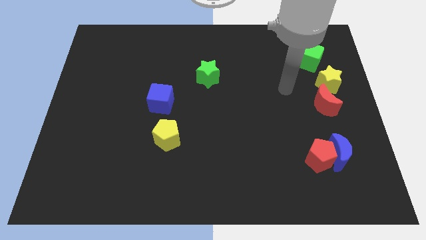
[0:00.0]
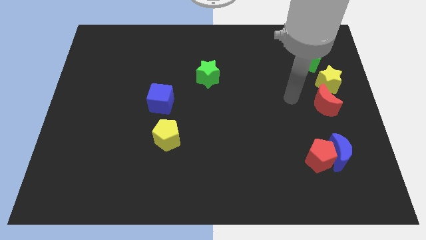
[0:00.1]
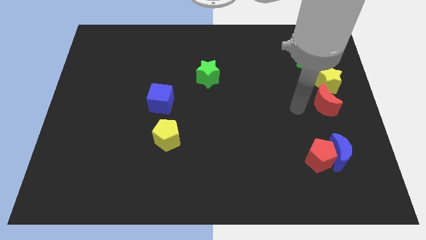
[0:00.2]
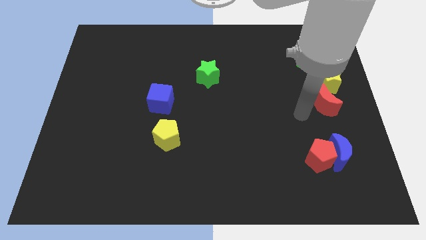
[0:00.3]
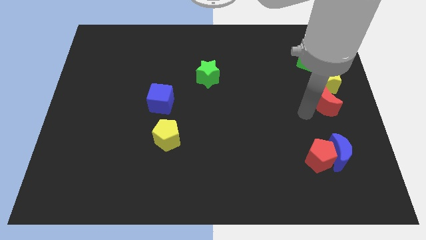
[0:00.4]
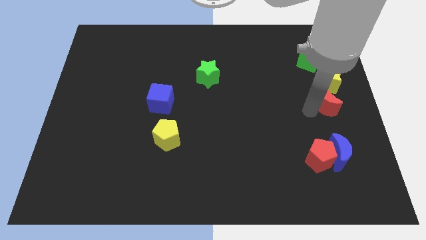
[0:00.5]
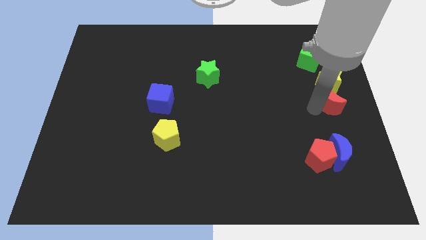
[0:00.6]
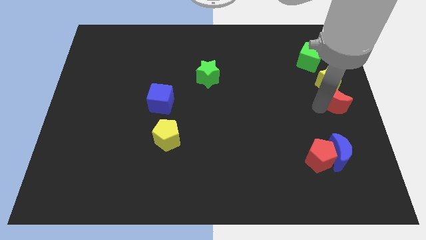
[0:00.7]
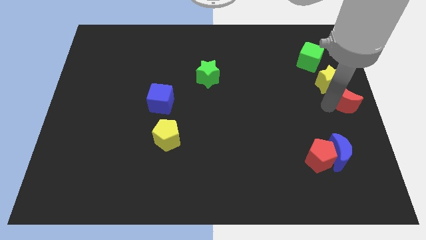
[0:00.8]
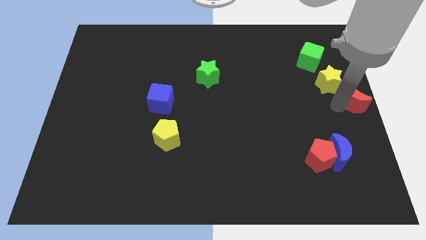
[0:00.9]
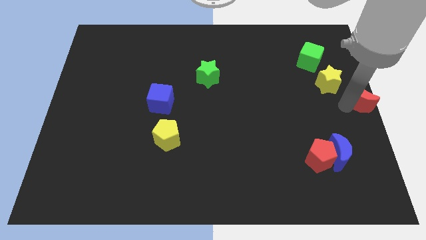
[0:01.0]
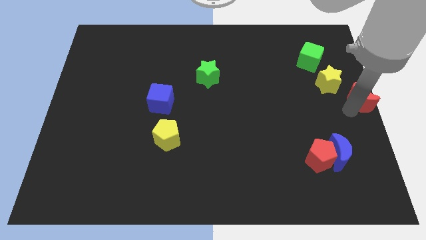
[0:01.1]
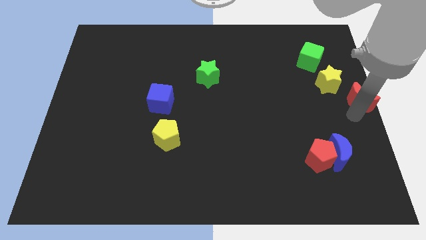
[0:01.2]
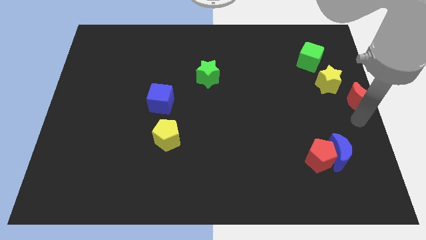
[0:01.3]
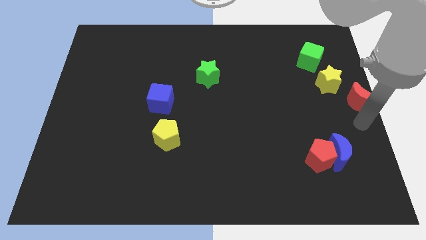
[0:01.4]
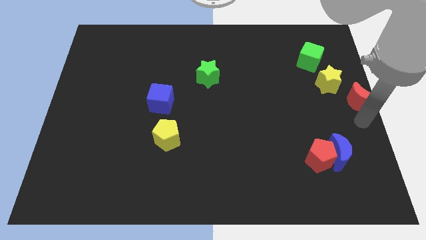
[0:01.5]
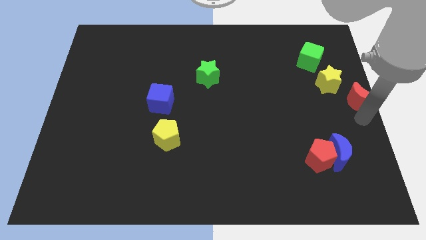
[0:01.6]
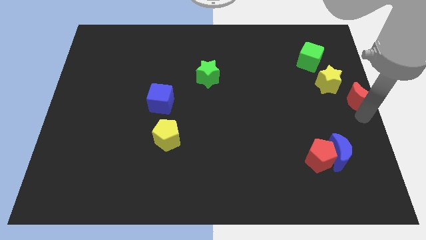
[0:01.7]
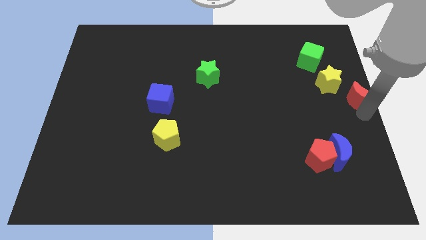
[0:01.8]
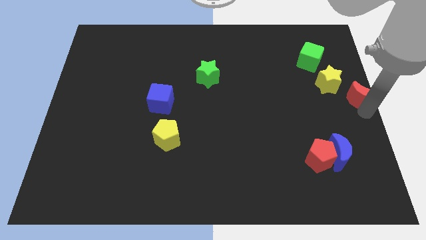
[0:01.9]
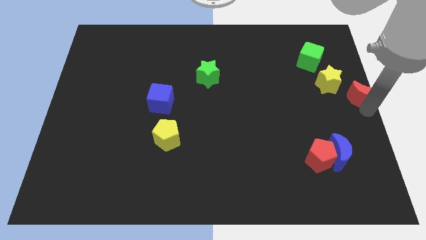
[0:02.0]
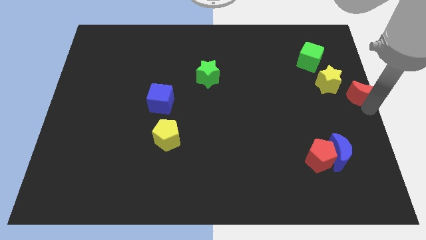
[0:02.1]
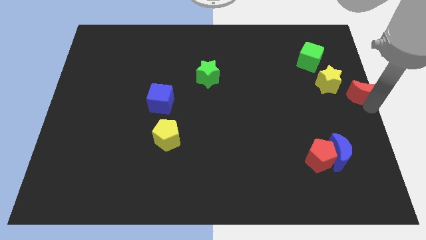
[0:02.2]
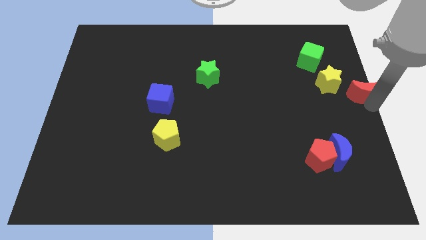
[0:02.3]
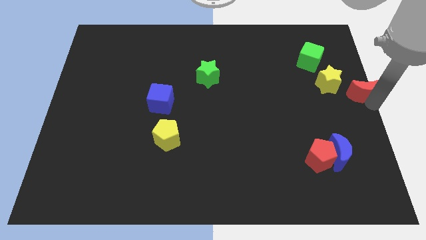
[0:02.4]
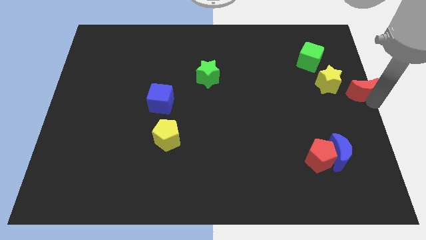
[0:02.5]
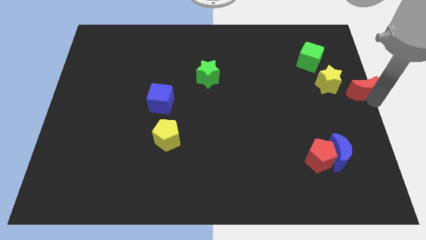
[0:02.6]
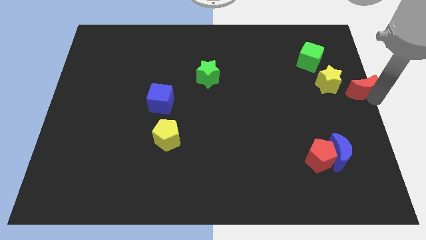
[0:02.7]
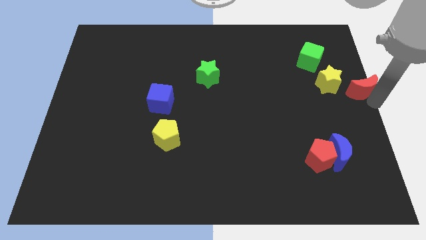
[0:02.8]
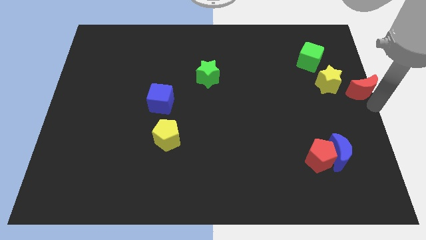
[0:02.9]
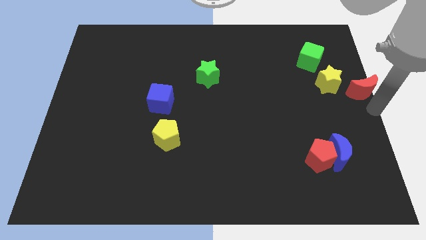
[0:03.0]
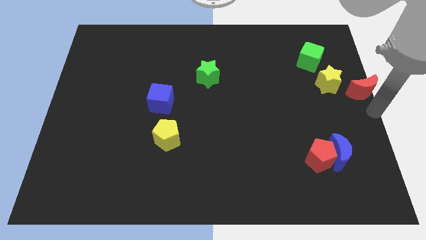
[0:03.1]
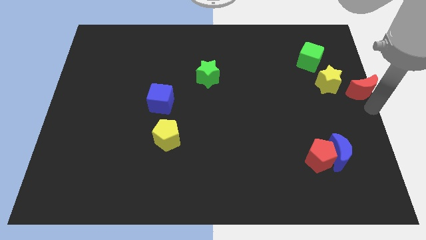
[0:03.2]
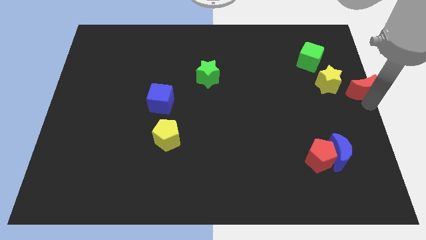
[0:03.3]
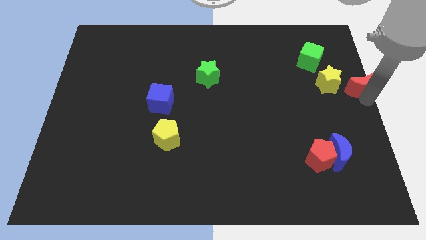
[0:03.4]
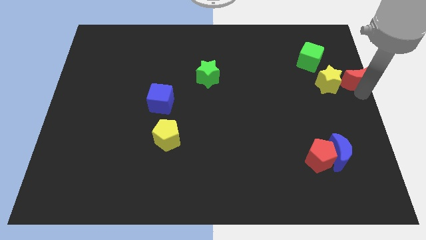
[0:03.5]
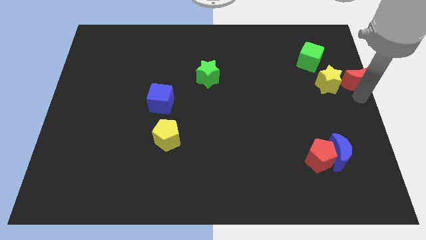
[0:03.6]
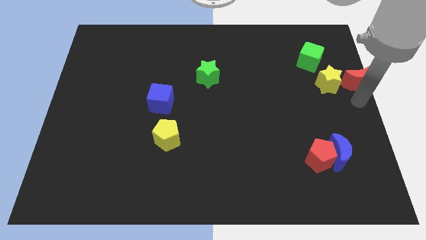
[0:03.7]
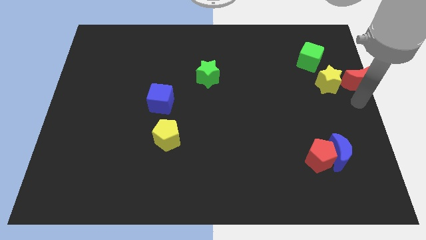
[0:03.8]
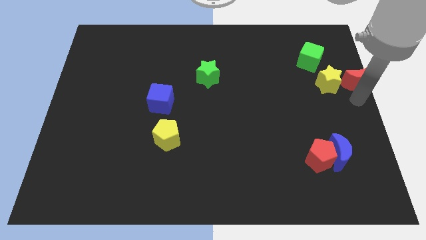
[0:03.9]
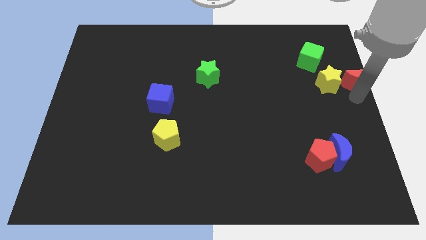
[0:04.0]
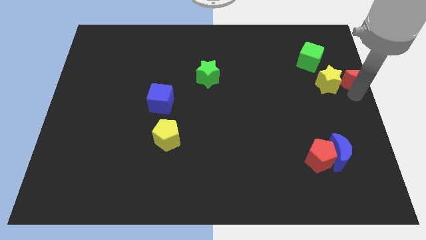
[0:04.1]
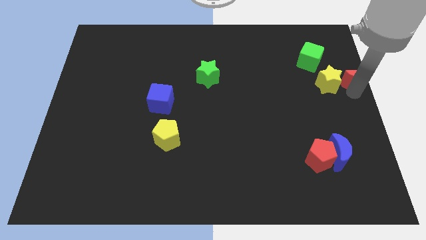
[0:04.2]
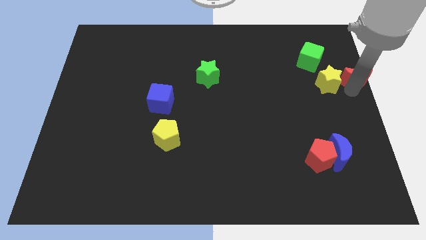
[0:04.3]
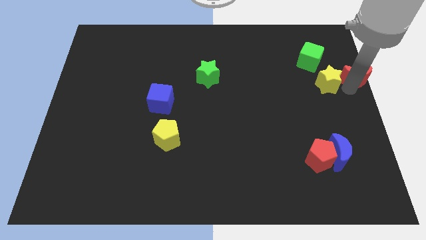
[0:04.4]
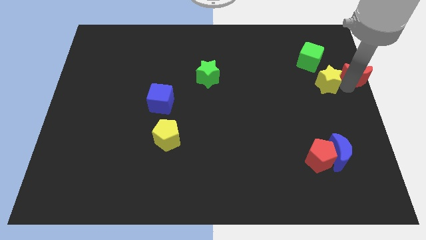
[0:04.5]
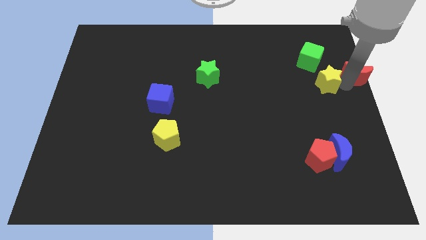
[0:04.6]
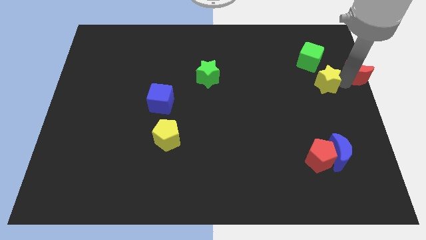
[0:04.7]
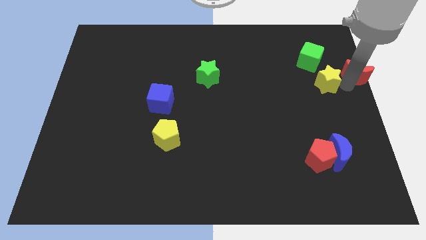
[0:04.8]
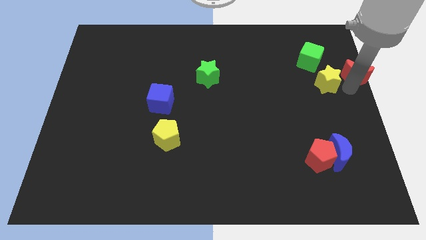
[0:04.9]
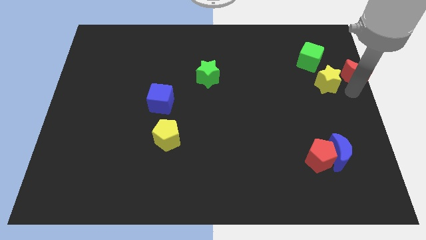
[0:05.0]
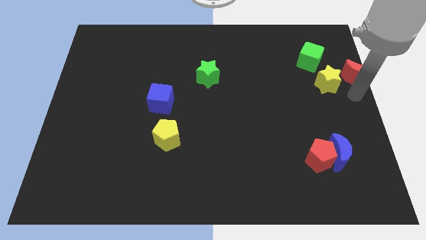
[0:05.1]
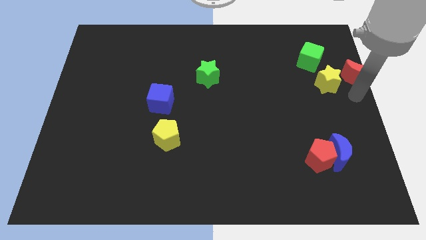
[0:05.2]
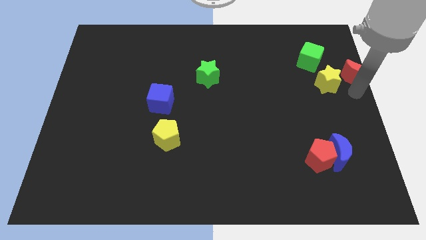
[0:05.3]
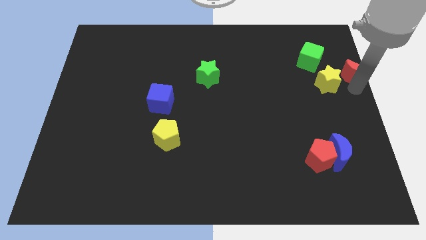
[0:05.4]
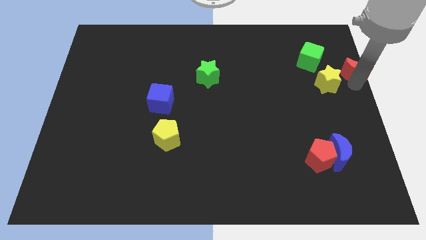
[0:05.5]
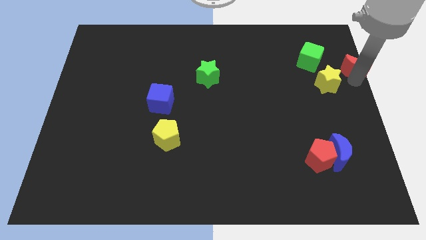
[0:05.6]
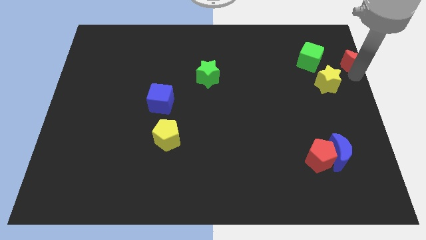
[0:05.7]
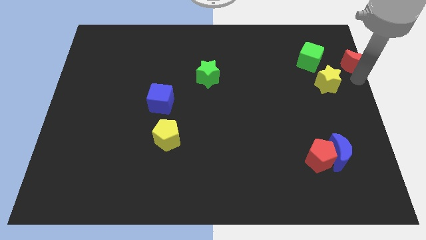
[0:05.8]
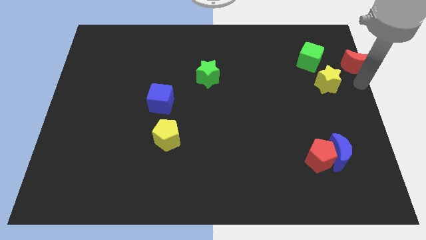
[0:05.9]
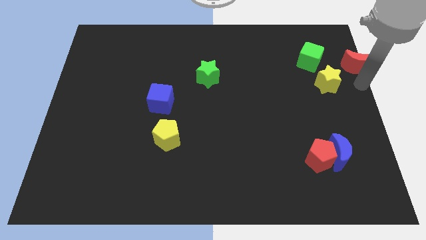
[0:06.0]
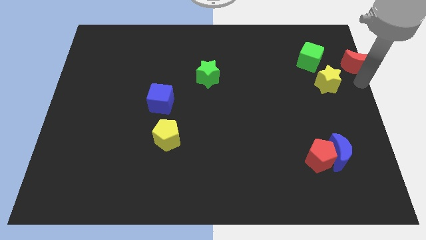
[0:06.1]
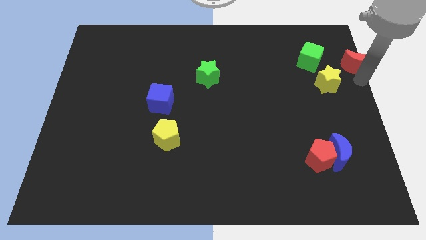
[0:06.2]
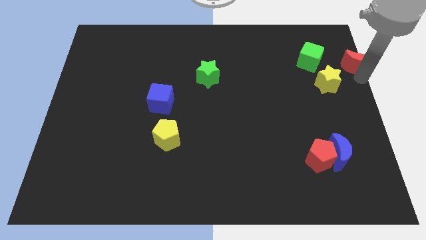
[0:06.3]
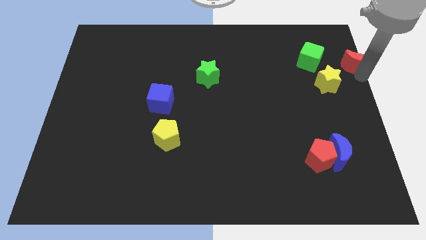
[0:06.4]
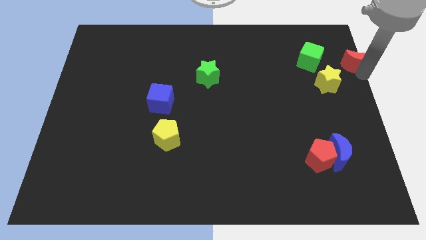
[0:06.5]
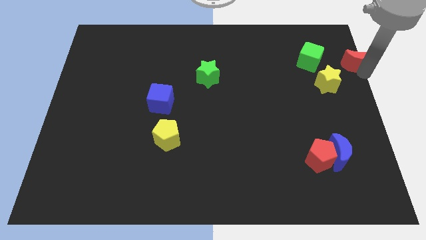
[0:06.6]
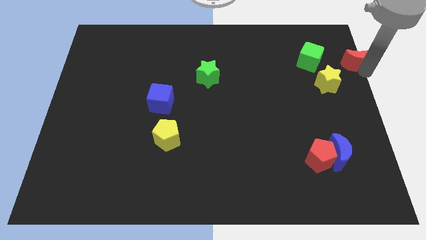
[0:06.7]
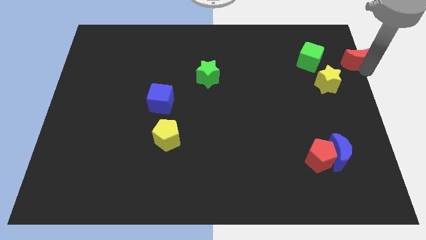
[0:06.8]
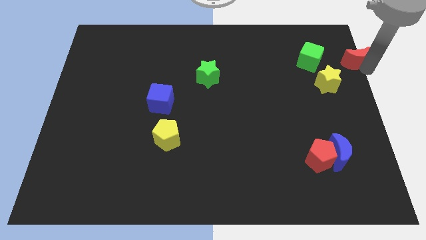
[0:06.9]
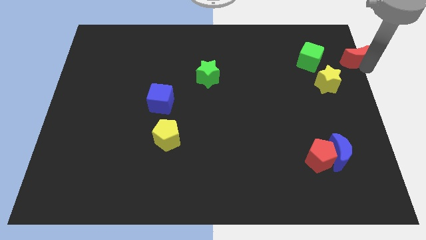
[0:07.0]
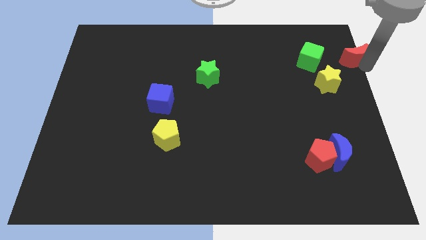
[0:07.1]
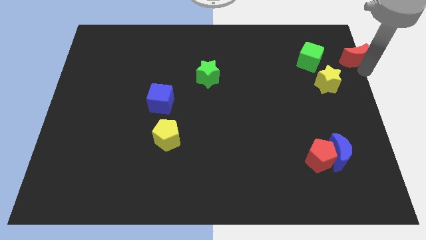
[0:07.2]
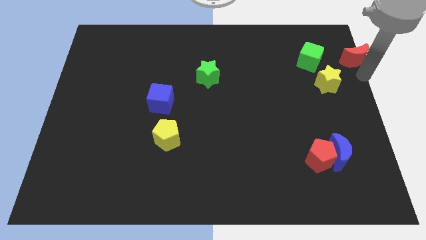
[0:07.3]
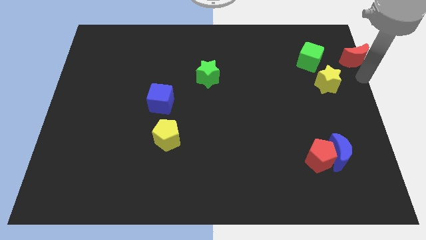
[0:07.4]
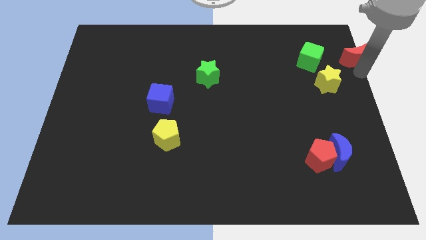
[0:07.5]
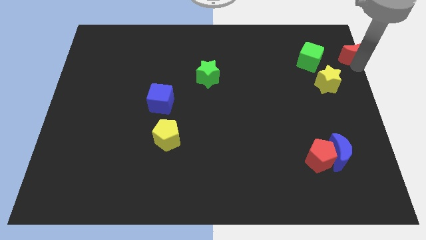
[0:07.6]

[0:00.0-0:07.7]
push the red moon to the top right
